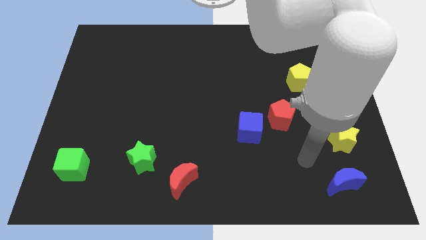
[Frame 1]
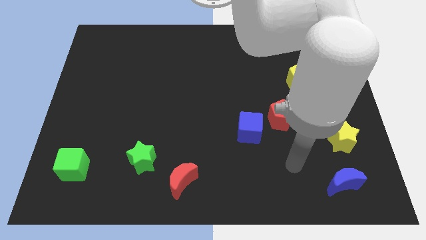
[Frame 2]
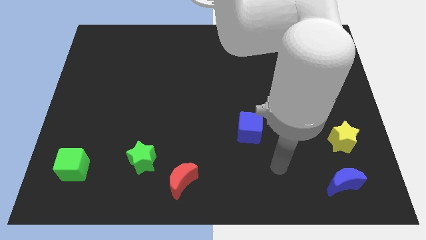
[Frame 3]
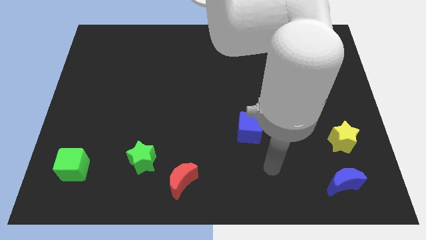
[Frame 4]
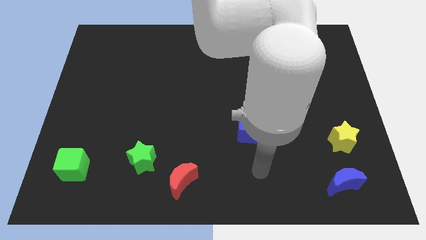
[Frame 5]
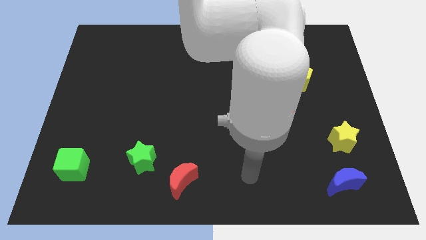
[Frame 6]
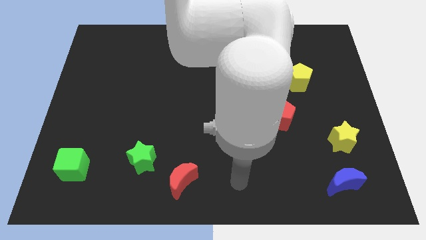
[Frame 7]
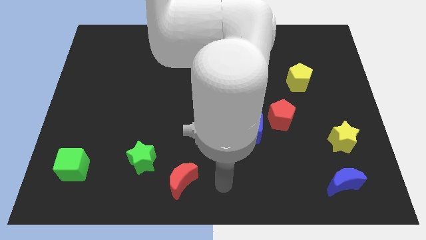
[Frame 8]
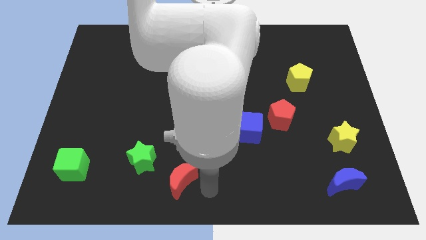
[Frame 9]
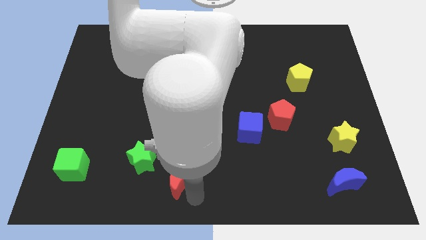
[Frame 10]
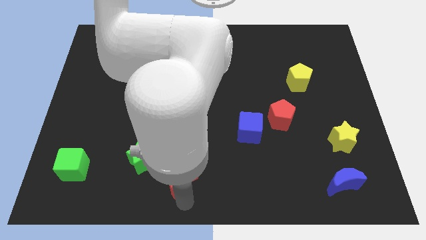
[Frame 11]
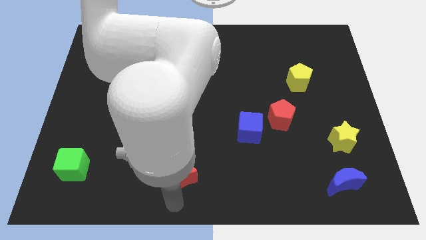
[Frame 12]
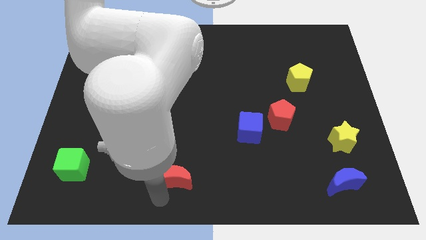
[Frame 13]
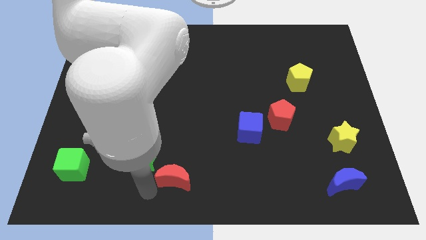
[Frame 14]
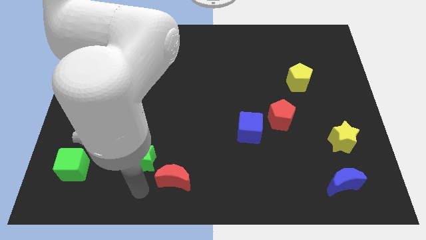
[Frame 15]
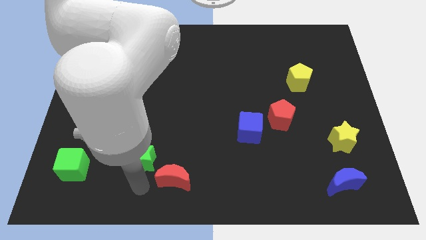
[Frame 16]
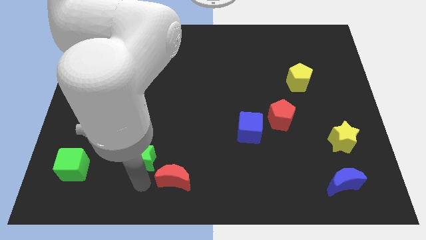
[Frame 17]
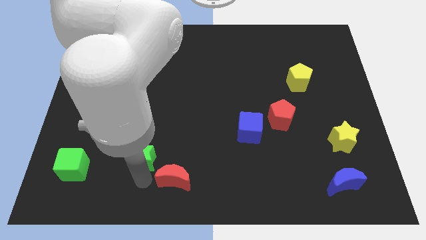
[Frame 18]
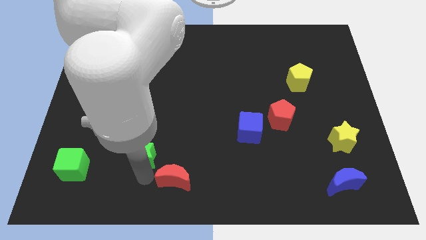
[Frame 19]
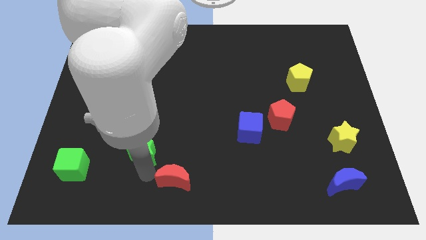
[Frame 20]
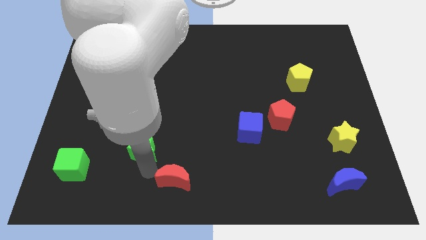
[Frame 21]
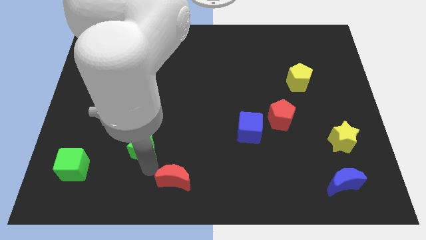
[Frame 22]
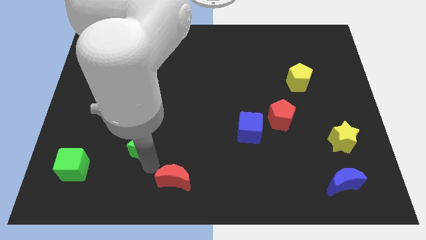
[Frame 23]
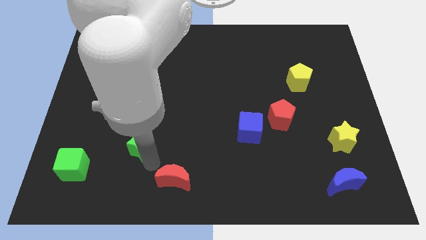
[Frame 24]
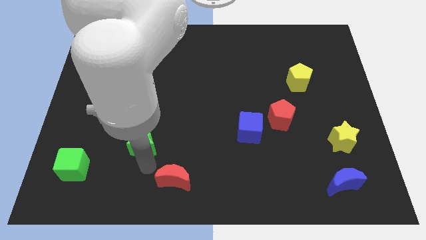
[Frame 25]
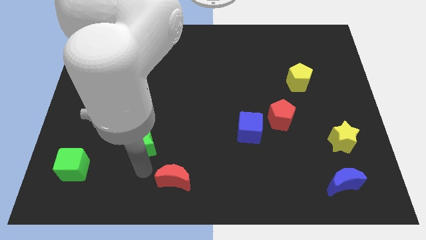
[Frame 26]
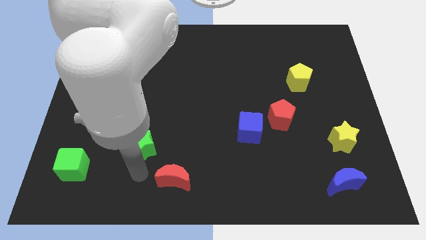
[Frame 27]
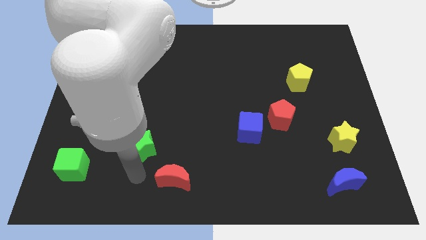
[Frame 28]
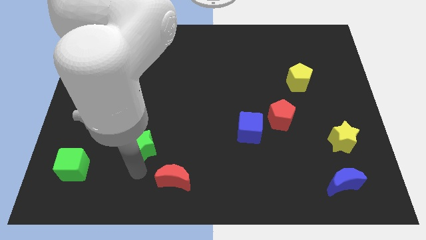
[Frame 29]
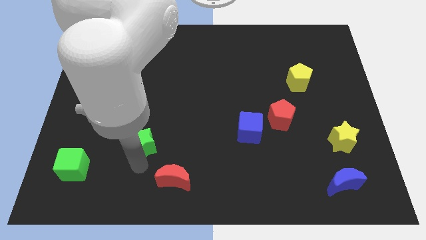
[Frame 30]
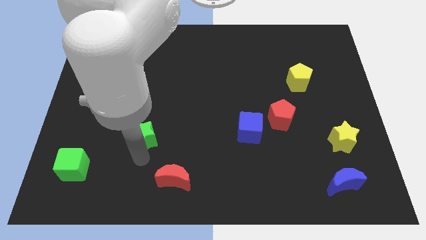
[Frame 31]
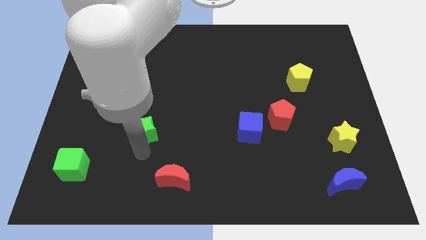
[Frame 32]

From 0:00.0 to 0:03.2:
move the green star a little up

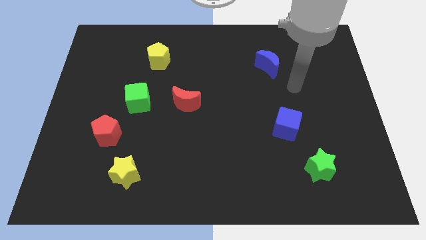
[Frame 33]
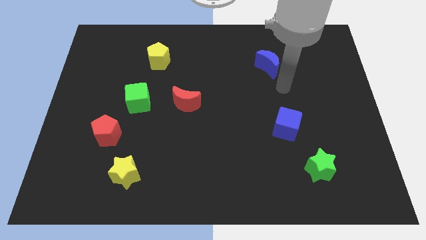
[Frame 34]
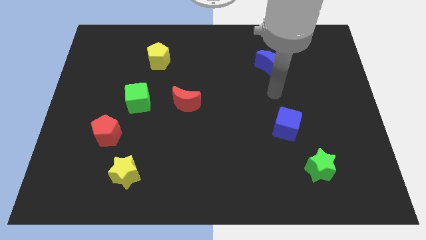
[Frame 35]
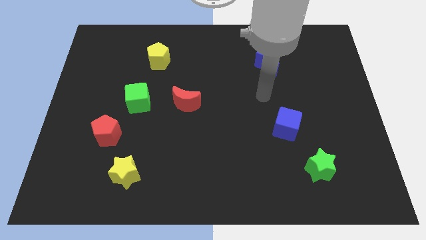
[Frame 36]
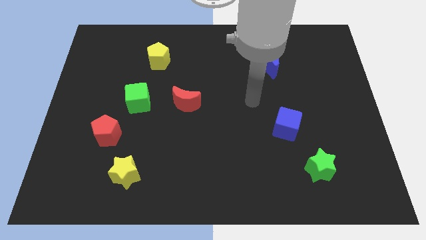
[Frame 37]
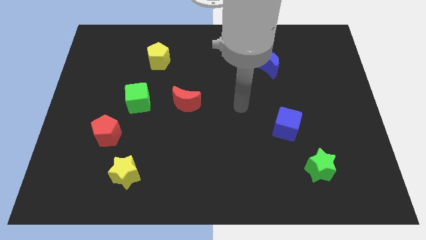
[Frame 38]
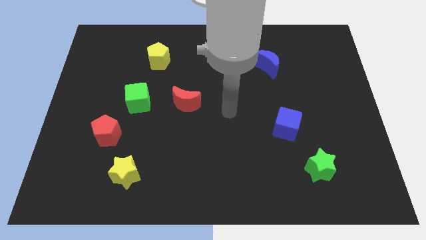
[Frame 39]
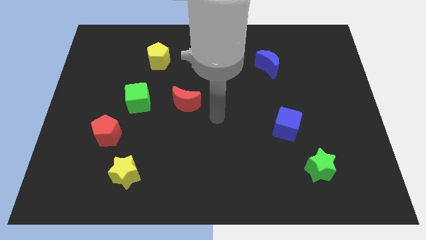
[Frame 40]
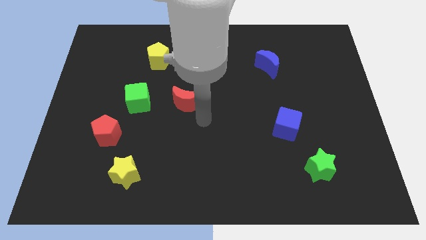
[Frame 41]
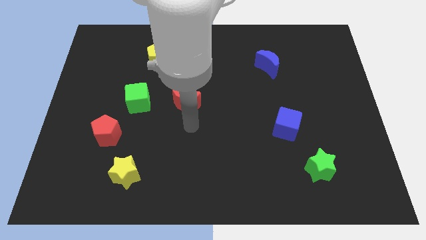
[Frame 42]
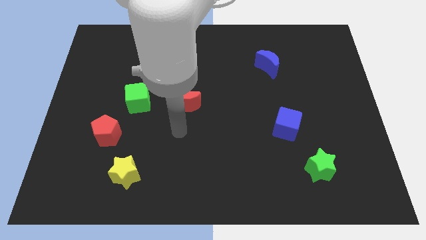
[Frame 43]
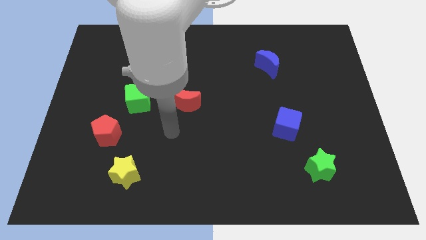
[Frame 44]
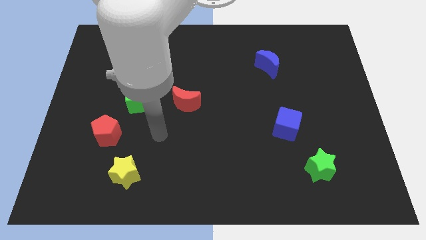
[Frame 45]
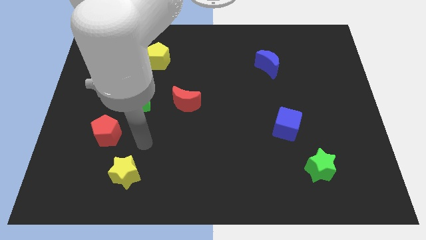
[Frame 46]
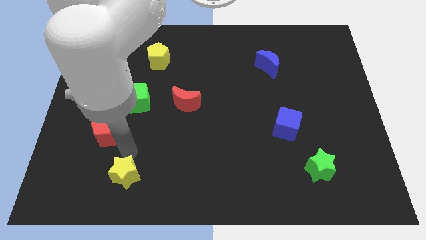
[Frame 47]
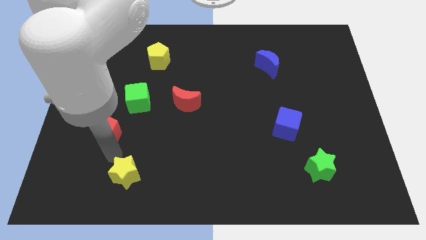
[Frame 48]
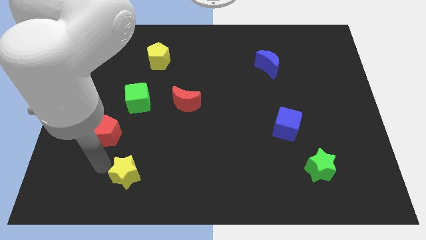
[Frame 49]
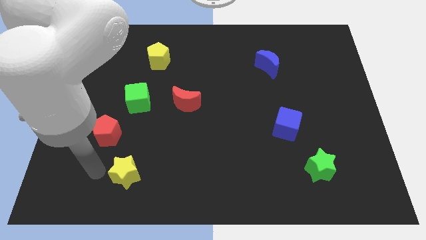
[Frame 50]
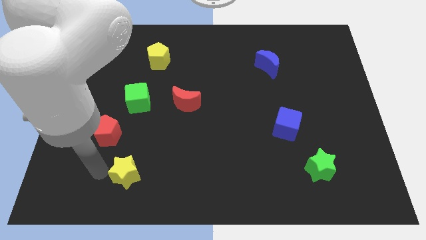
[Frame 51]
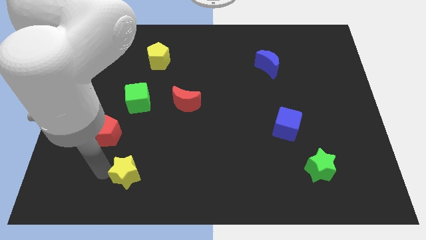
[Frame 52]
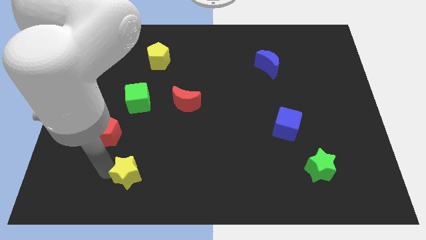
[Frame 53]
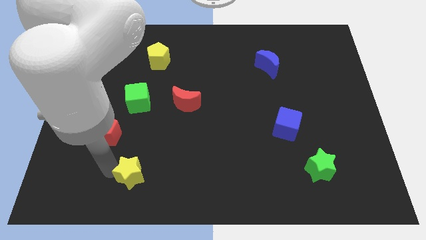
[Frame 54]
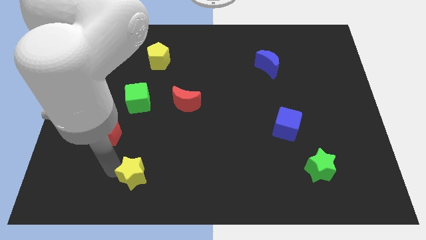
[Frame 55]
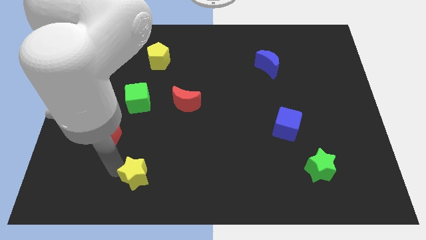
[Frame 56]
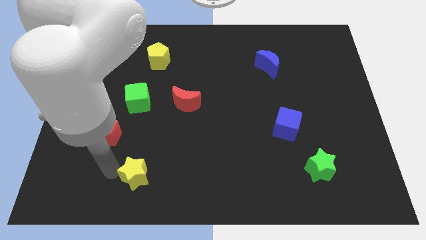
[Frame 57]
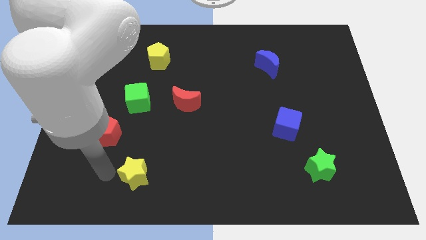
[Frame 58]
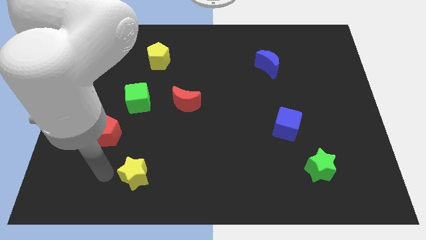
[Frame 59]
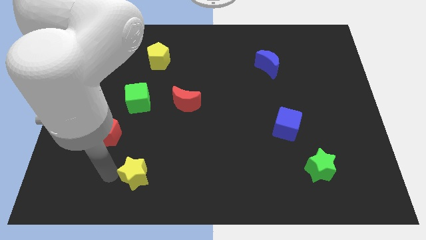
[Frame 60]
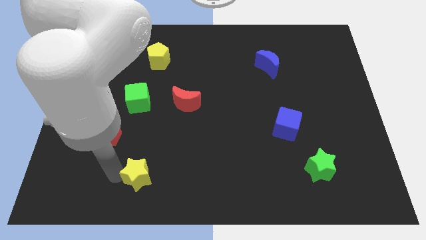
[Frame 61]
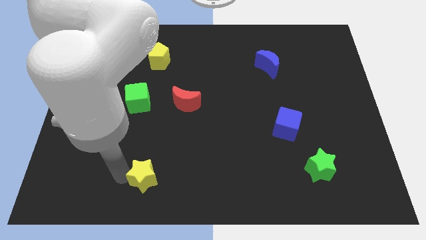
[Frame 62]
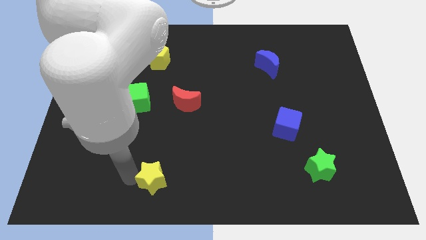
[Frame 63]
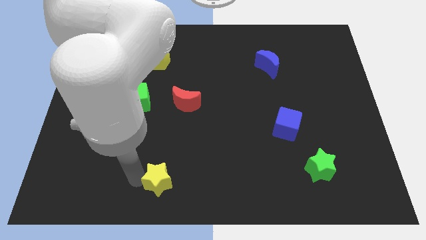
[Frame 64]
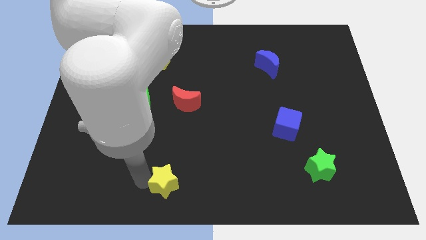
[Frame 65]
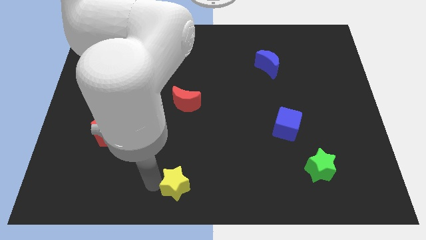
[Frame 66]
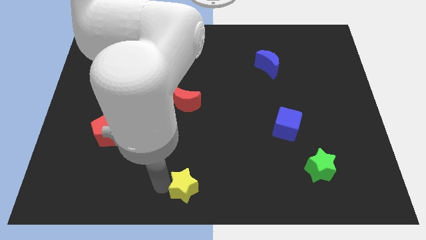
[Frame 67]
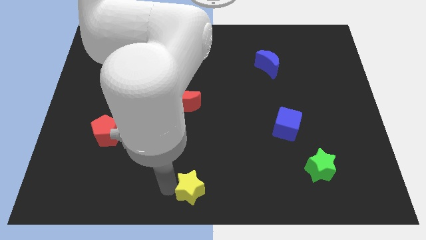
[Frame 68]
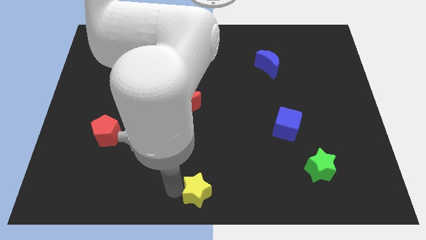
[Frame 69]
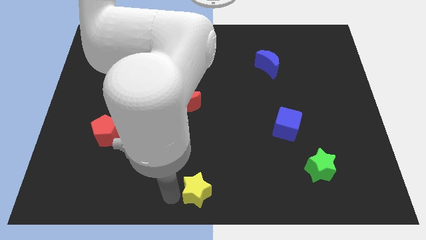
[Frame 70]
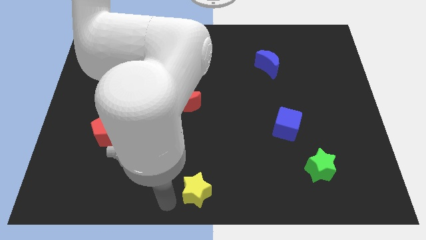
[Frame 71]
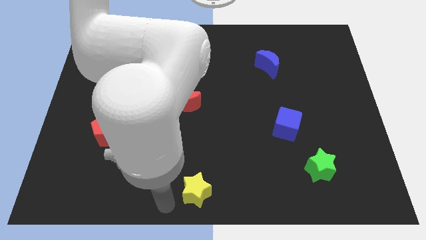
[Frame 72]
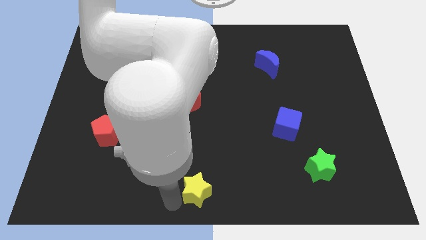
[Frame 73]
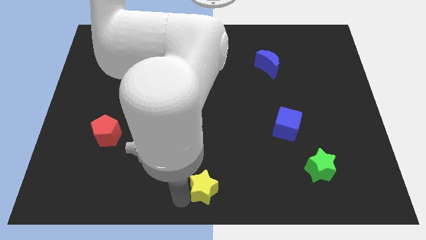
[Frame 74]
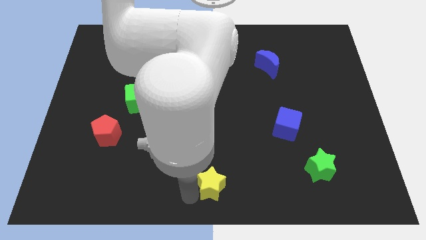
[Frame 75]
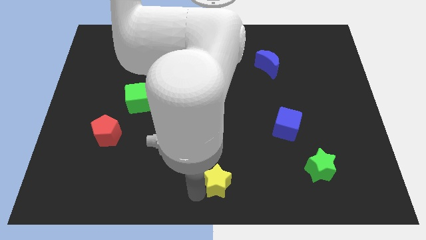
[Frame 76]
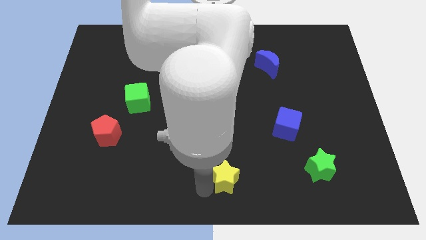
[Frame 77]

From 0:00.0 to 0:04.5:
push the yellow star to the right

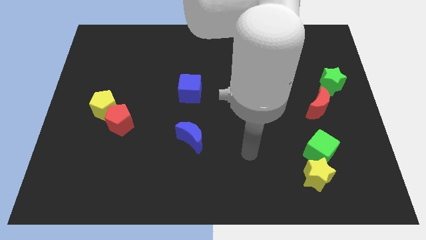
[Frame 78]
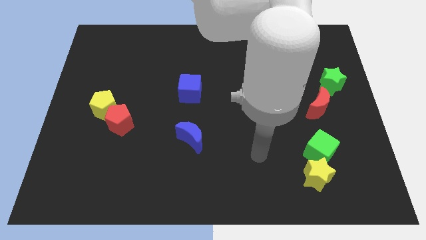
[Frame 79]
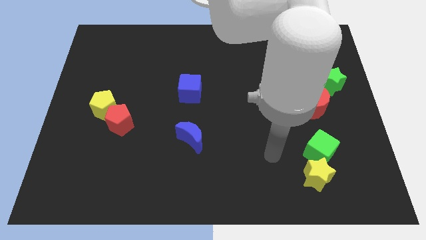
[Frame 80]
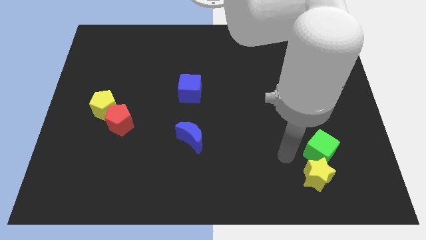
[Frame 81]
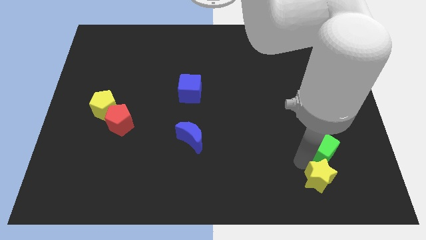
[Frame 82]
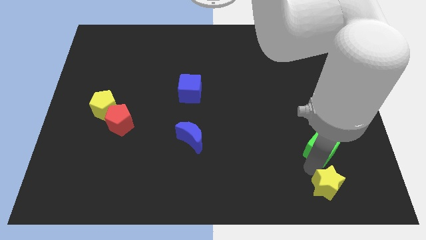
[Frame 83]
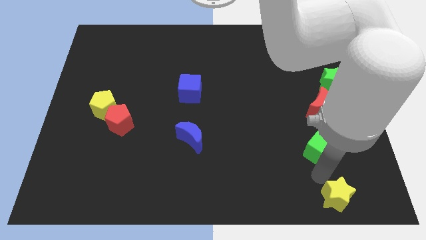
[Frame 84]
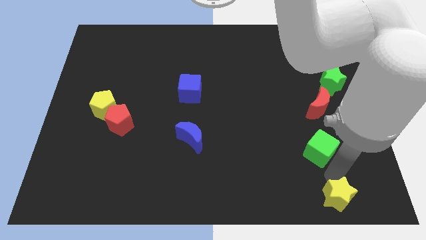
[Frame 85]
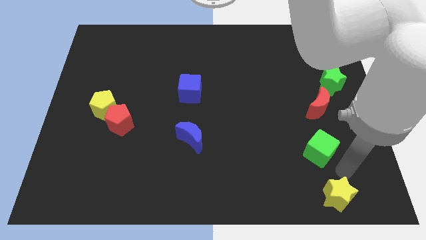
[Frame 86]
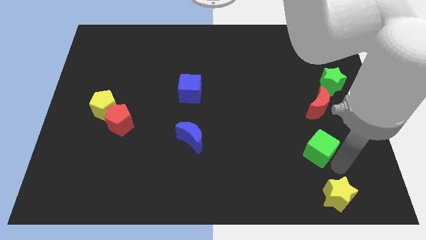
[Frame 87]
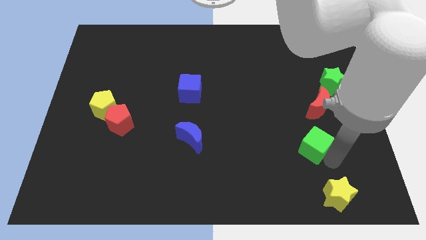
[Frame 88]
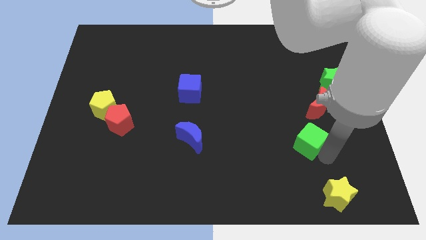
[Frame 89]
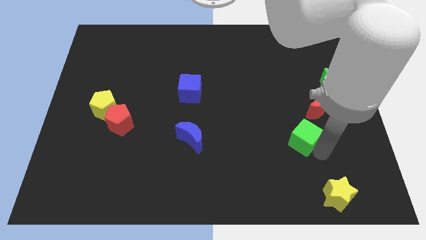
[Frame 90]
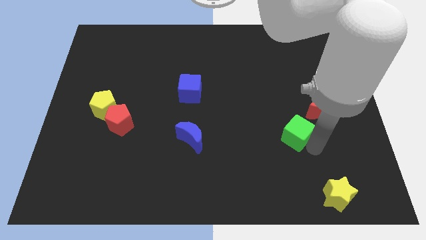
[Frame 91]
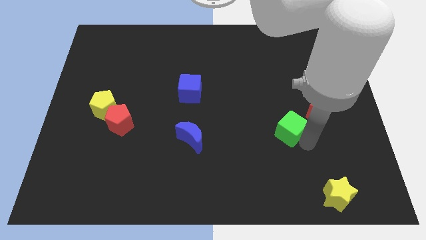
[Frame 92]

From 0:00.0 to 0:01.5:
move the green cube a little diagonally up and to the left
